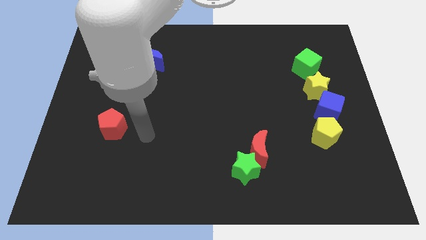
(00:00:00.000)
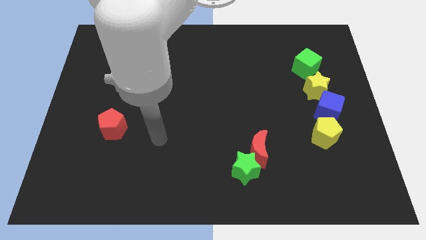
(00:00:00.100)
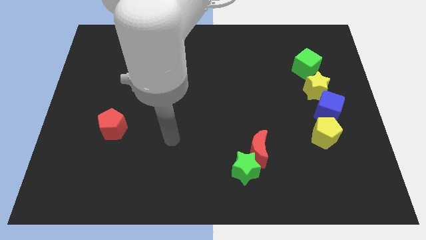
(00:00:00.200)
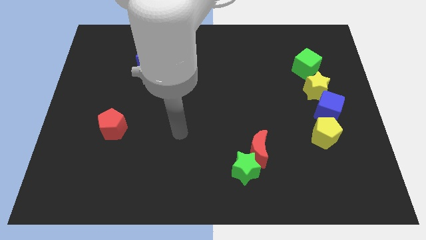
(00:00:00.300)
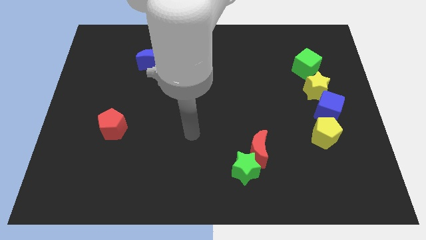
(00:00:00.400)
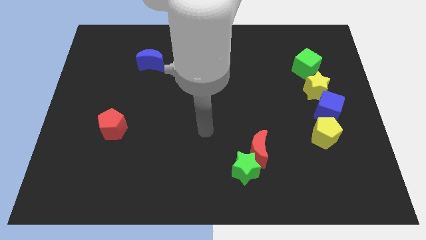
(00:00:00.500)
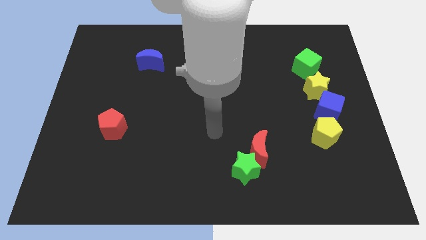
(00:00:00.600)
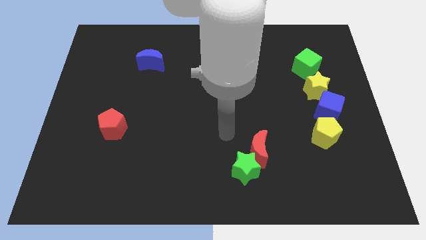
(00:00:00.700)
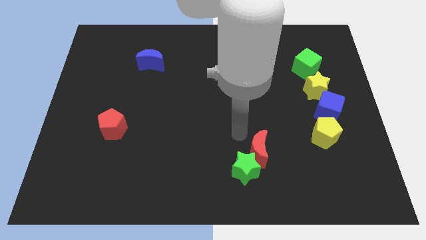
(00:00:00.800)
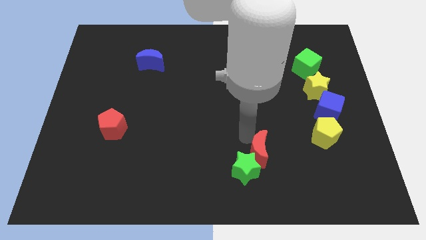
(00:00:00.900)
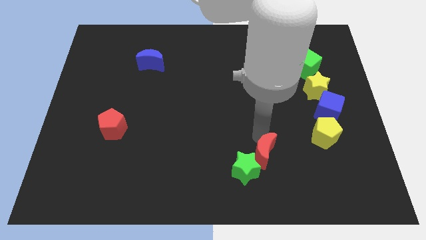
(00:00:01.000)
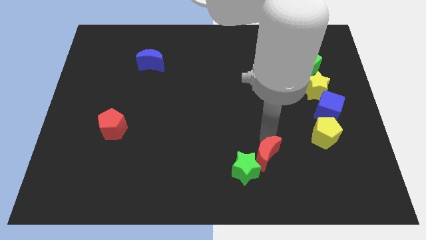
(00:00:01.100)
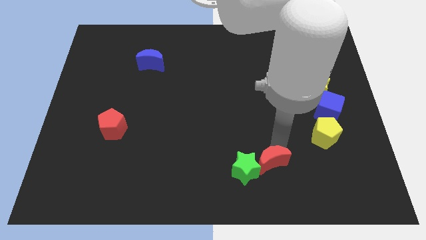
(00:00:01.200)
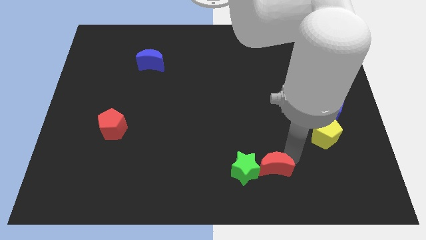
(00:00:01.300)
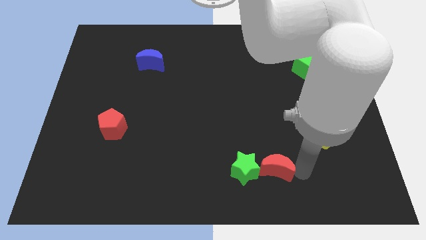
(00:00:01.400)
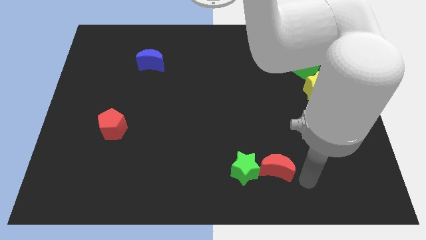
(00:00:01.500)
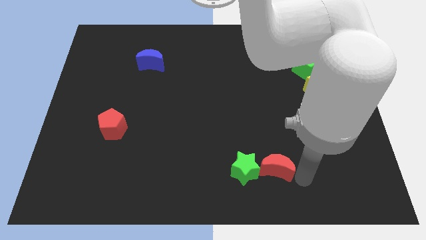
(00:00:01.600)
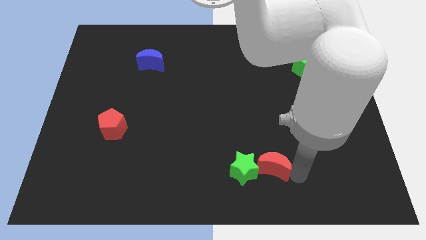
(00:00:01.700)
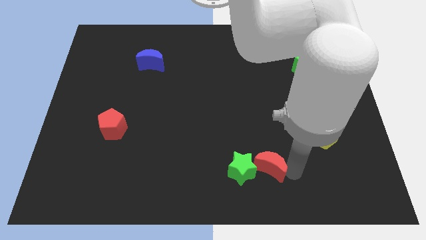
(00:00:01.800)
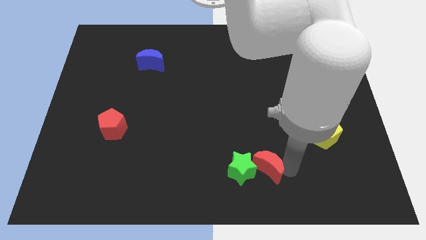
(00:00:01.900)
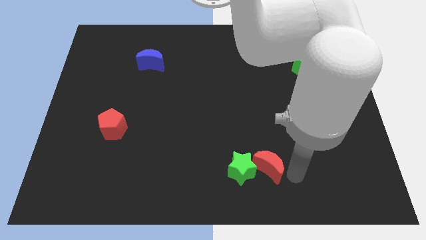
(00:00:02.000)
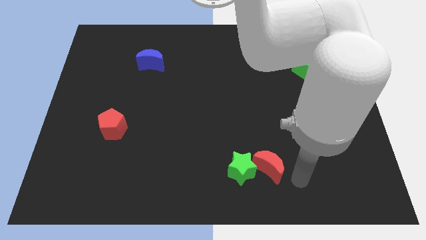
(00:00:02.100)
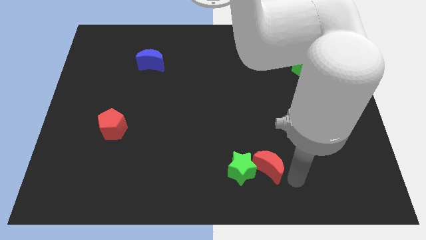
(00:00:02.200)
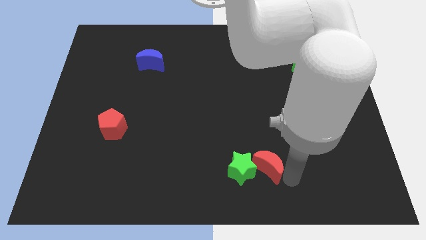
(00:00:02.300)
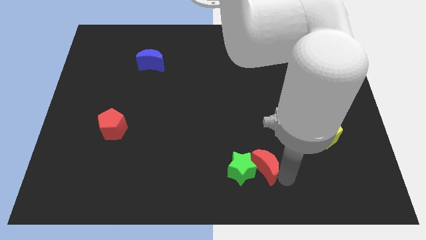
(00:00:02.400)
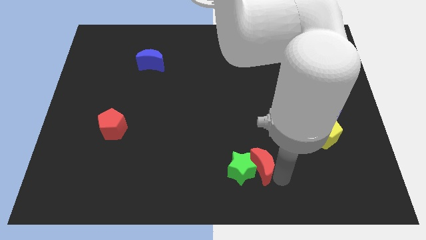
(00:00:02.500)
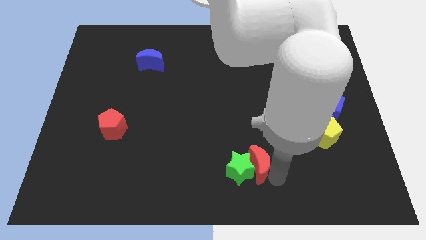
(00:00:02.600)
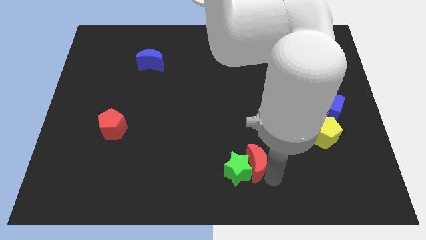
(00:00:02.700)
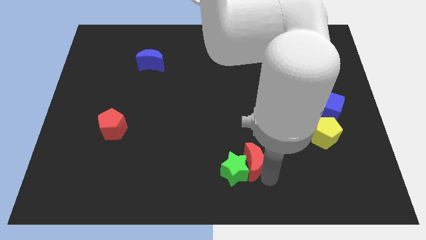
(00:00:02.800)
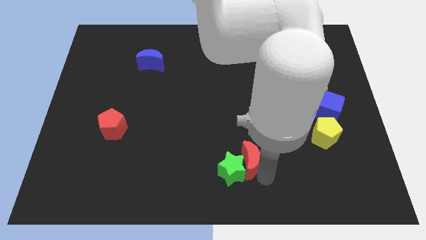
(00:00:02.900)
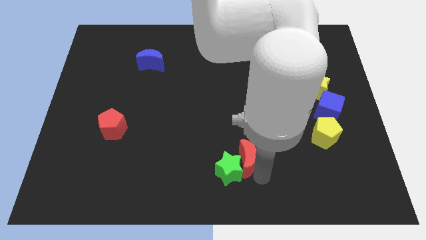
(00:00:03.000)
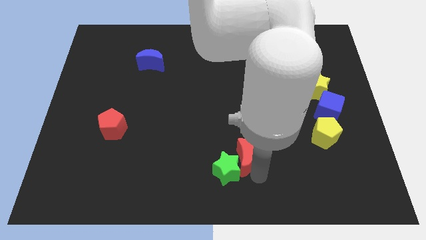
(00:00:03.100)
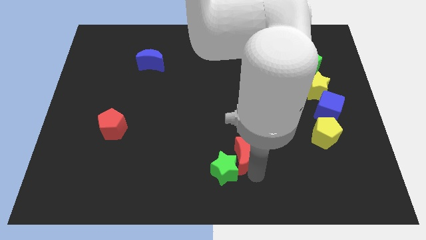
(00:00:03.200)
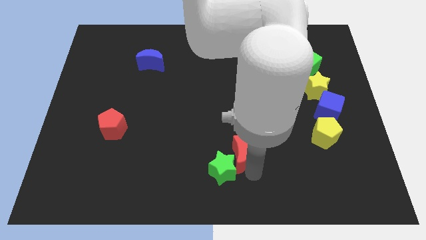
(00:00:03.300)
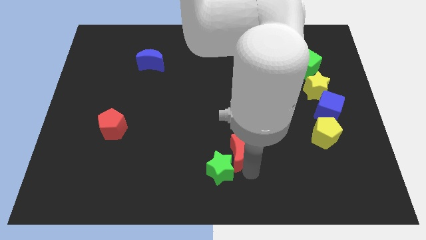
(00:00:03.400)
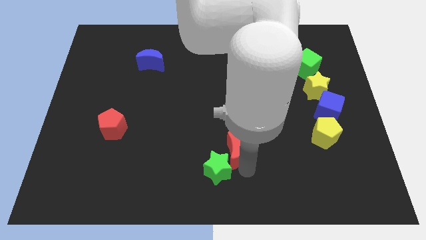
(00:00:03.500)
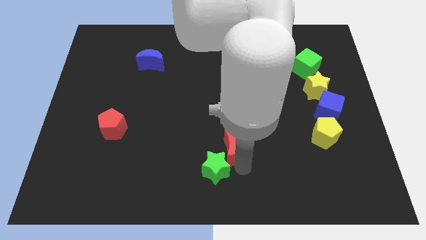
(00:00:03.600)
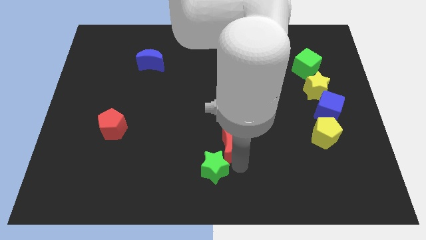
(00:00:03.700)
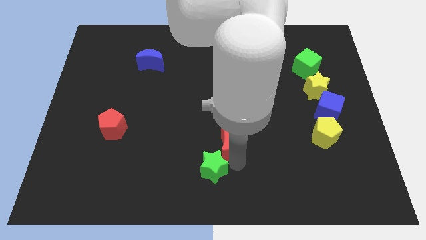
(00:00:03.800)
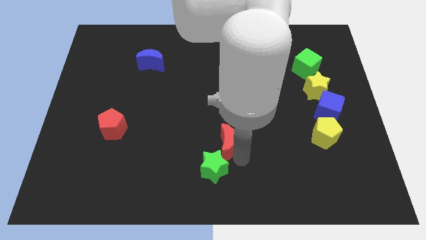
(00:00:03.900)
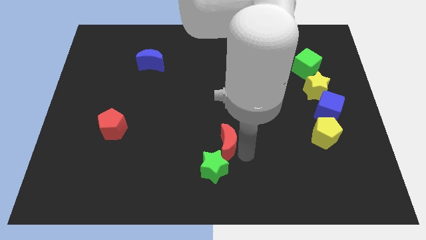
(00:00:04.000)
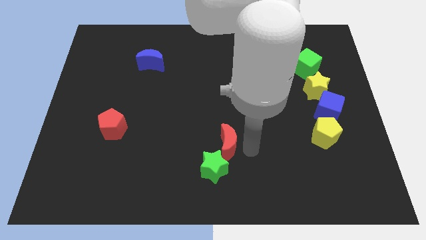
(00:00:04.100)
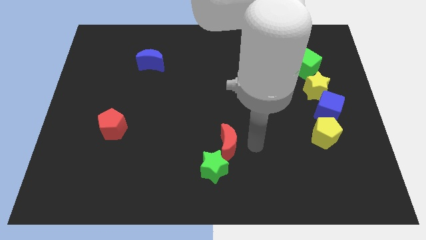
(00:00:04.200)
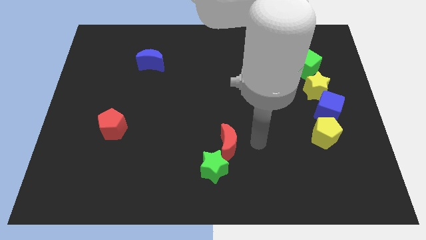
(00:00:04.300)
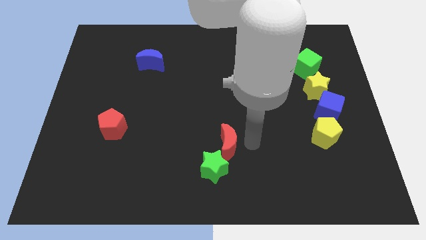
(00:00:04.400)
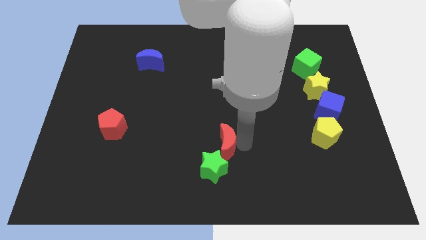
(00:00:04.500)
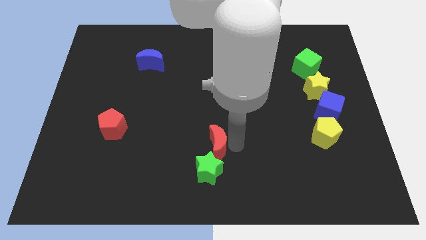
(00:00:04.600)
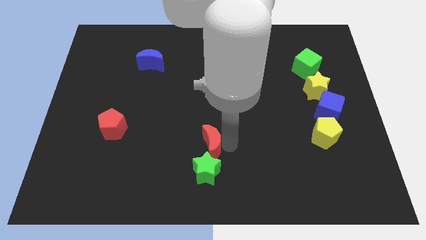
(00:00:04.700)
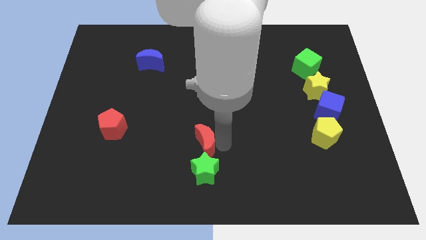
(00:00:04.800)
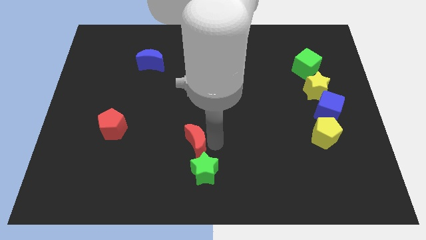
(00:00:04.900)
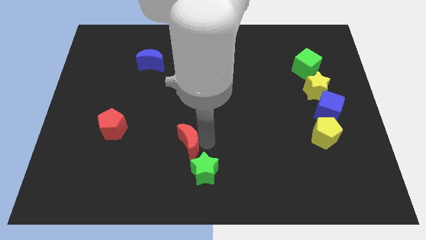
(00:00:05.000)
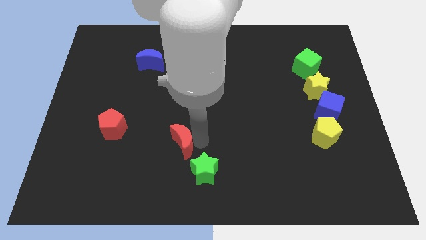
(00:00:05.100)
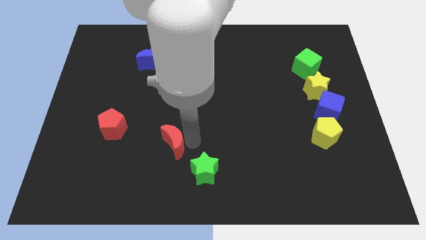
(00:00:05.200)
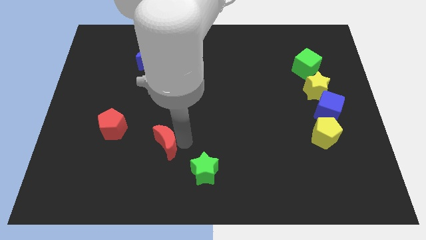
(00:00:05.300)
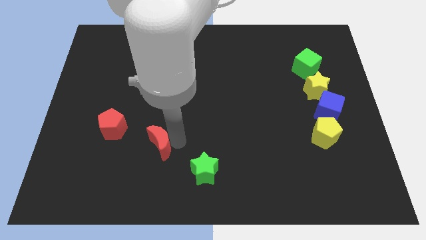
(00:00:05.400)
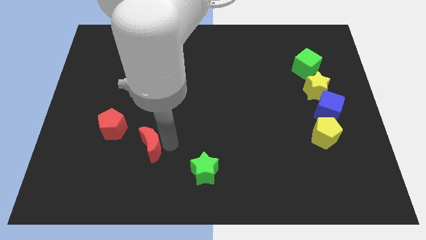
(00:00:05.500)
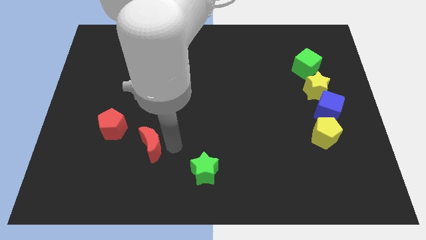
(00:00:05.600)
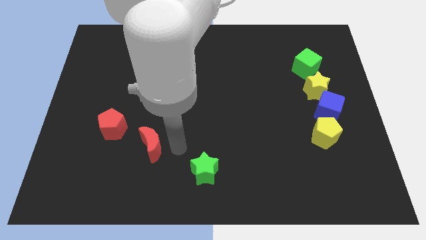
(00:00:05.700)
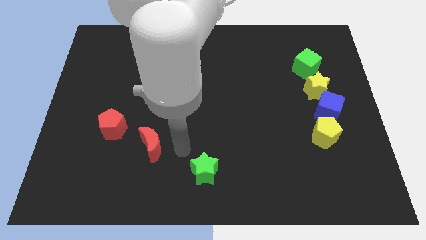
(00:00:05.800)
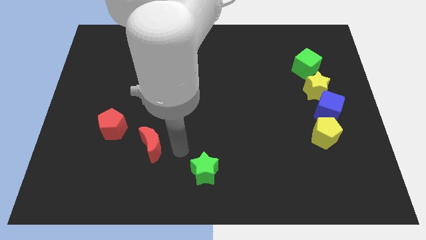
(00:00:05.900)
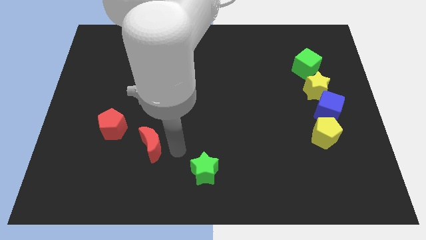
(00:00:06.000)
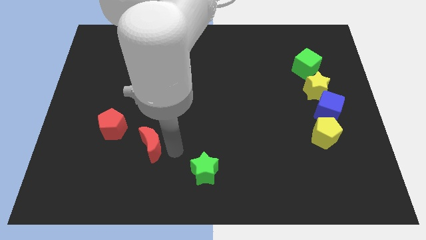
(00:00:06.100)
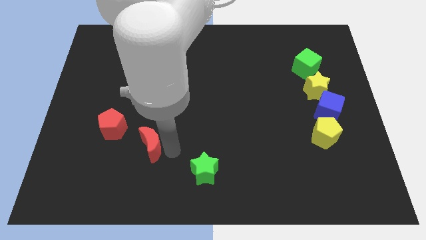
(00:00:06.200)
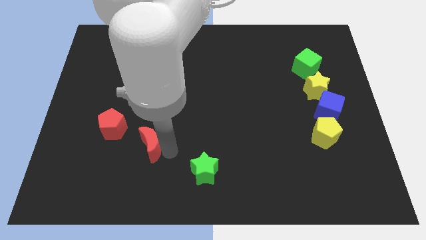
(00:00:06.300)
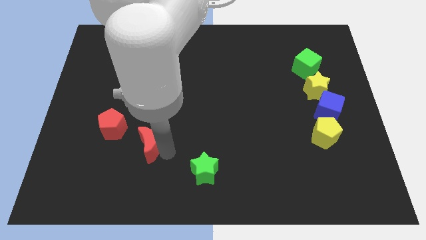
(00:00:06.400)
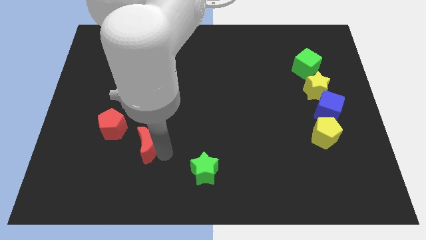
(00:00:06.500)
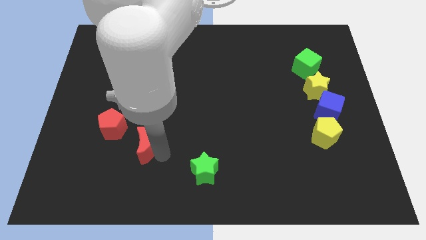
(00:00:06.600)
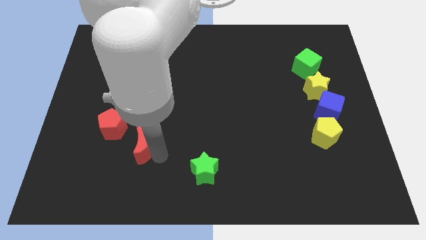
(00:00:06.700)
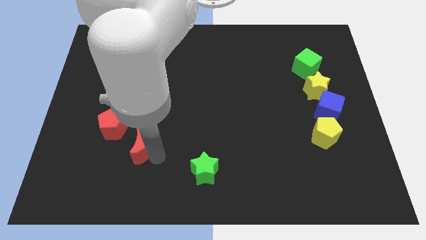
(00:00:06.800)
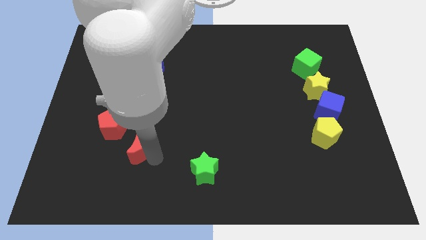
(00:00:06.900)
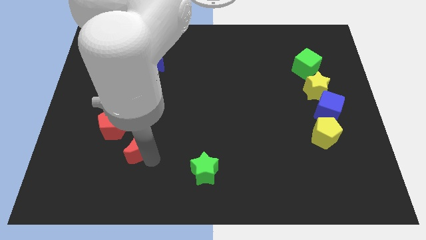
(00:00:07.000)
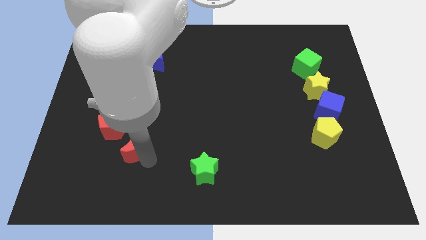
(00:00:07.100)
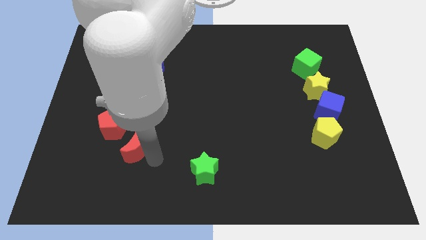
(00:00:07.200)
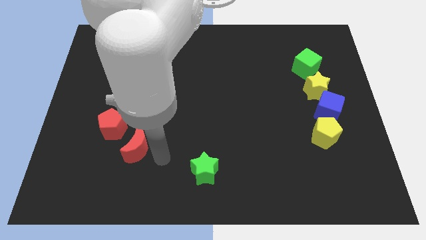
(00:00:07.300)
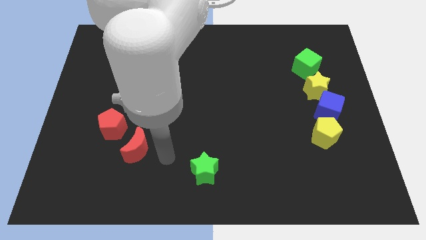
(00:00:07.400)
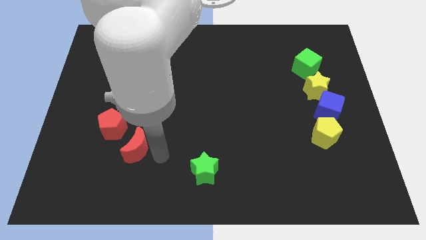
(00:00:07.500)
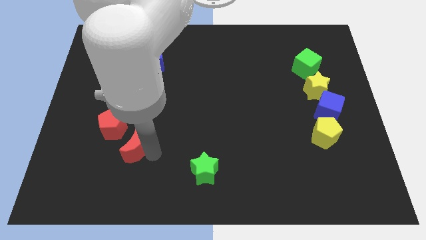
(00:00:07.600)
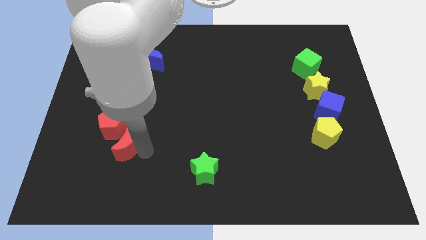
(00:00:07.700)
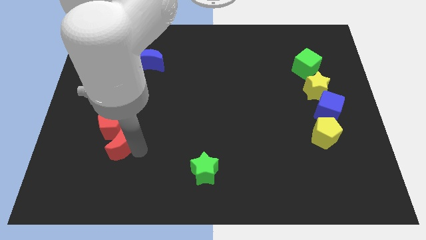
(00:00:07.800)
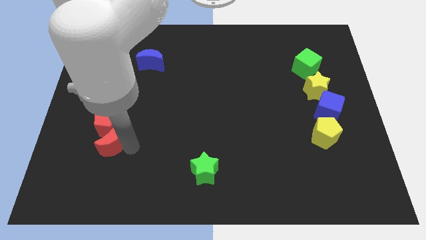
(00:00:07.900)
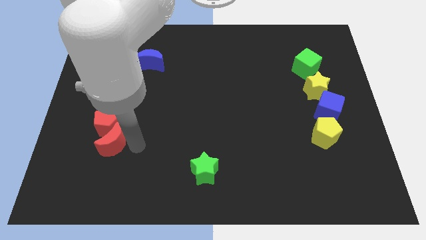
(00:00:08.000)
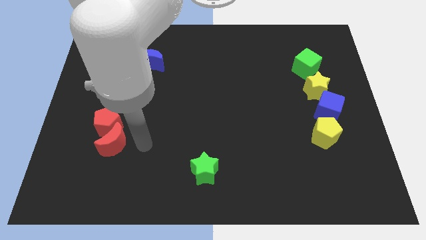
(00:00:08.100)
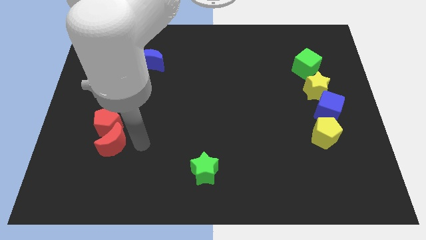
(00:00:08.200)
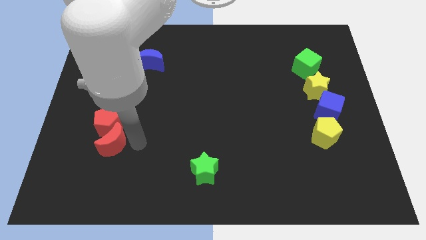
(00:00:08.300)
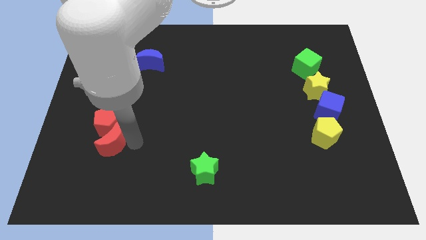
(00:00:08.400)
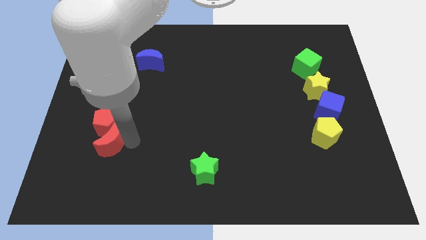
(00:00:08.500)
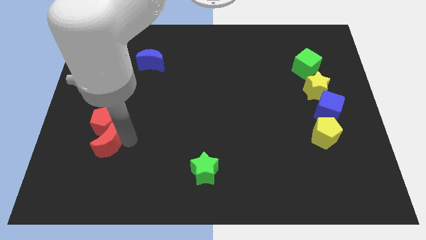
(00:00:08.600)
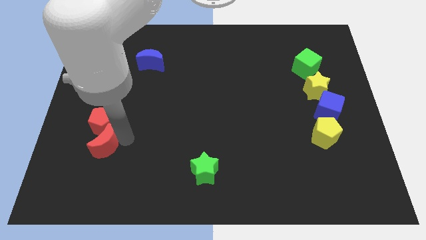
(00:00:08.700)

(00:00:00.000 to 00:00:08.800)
push the red moon diagonally down and to the left of the red pentagon
